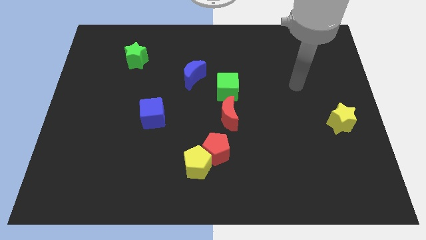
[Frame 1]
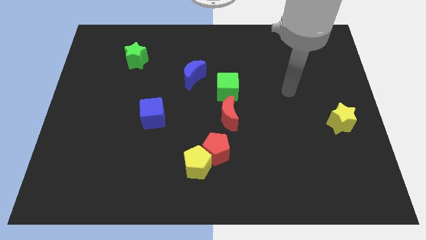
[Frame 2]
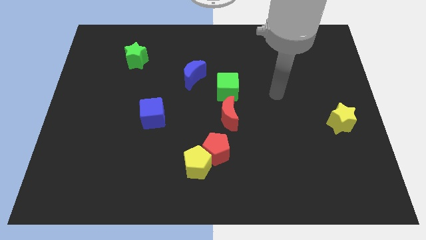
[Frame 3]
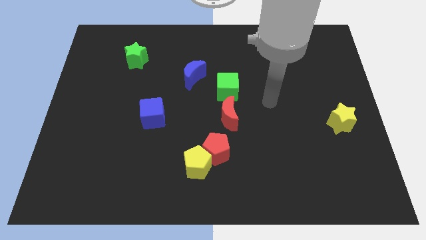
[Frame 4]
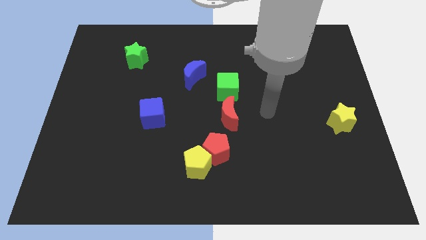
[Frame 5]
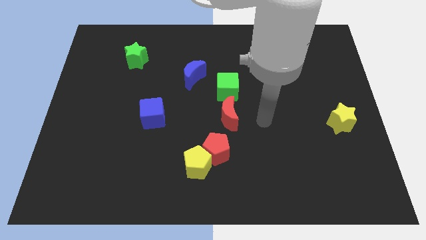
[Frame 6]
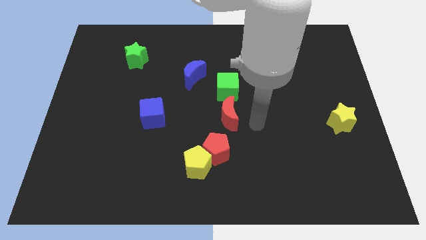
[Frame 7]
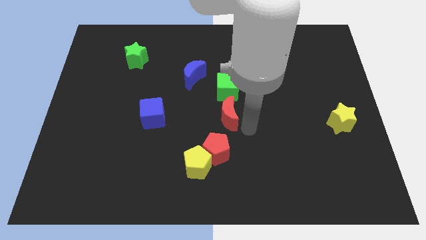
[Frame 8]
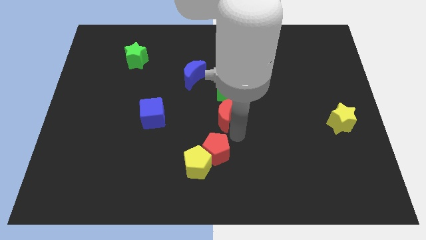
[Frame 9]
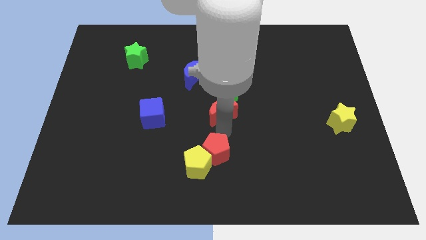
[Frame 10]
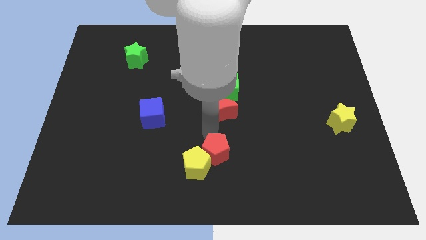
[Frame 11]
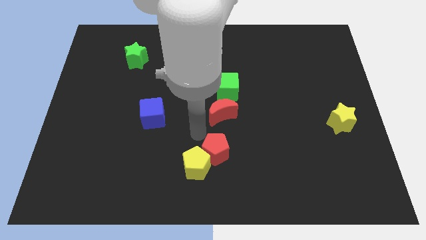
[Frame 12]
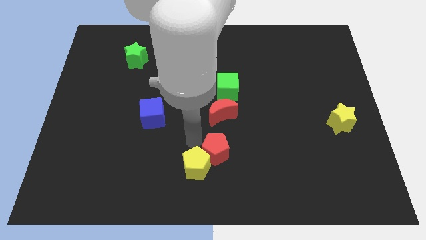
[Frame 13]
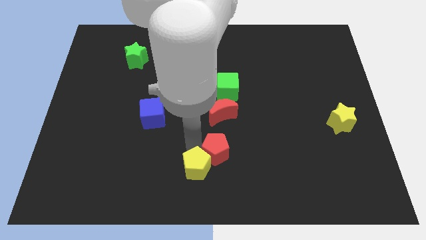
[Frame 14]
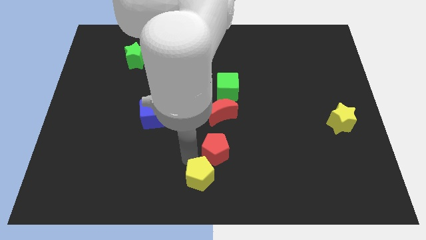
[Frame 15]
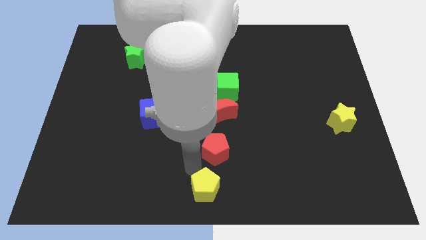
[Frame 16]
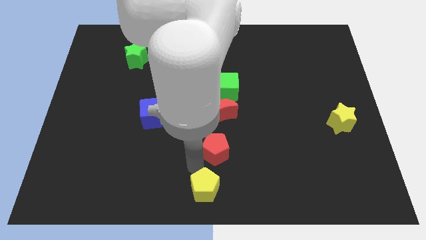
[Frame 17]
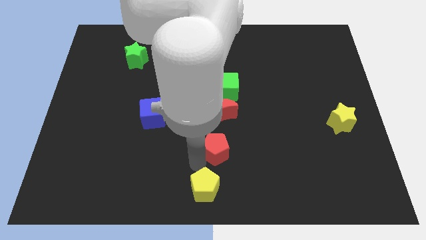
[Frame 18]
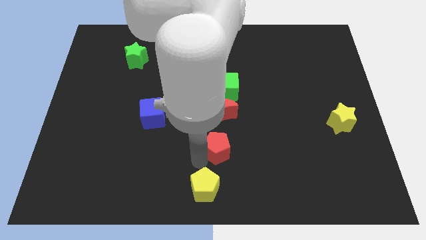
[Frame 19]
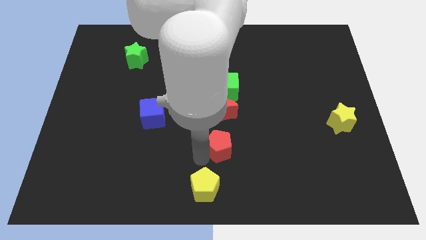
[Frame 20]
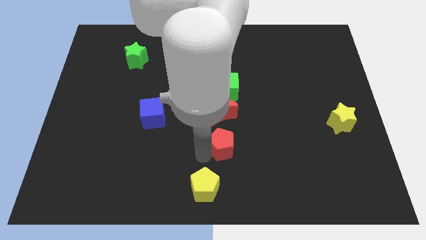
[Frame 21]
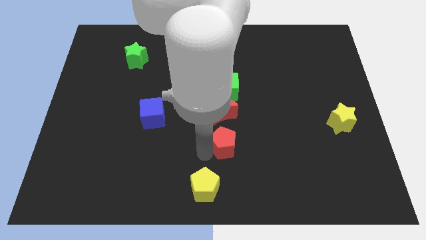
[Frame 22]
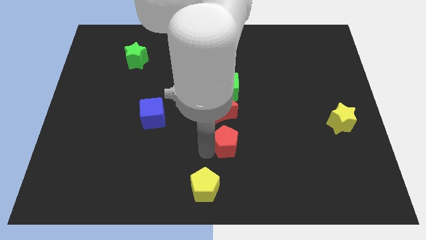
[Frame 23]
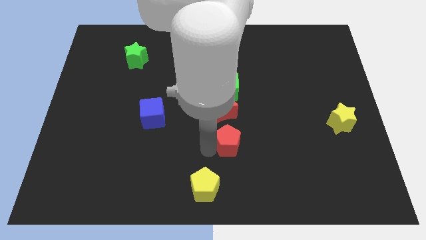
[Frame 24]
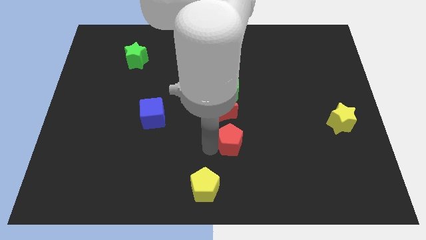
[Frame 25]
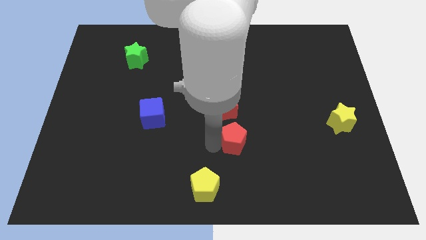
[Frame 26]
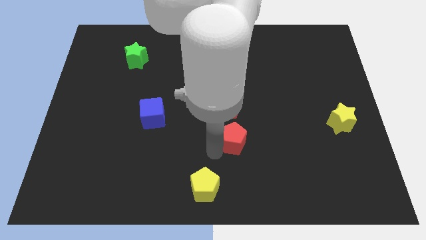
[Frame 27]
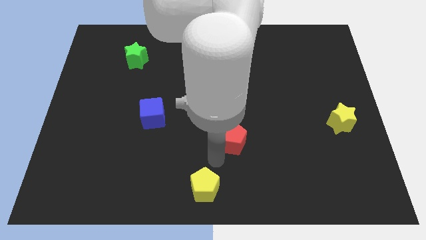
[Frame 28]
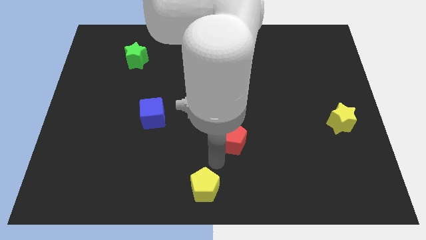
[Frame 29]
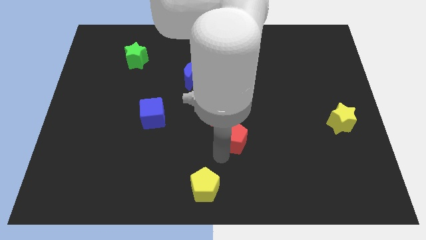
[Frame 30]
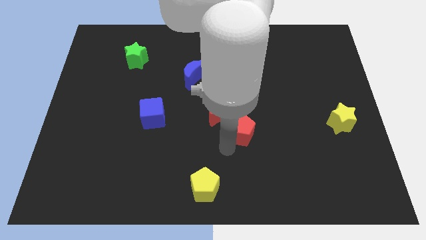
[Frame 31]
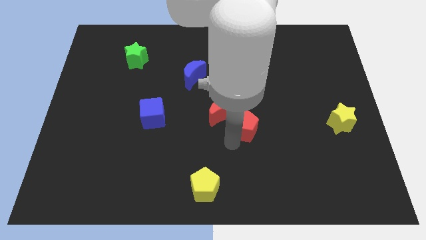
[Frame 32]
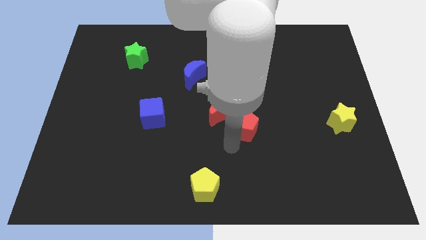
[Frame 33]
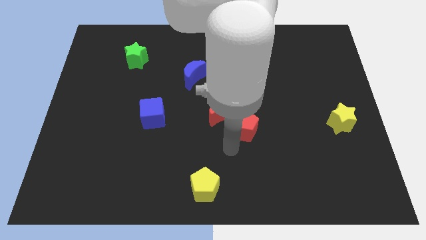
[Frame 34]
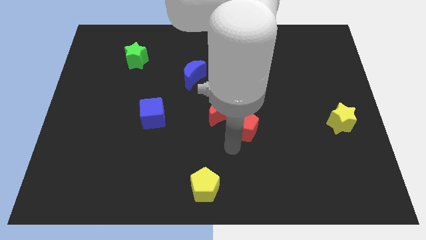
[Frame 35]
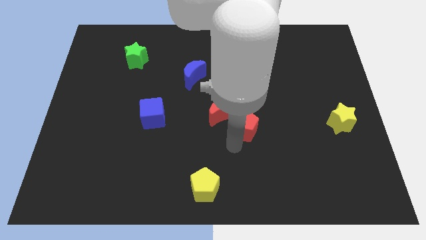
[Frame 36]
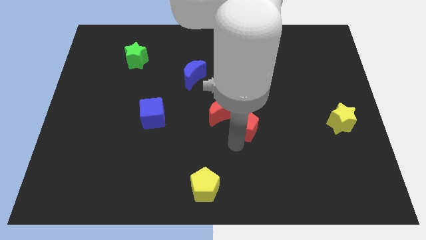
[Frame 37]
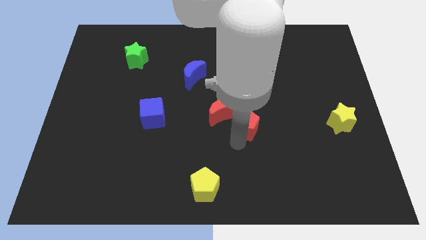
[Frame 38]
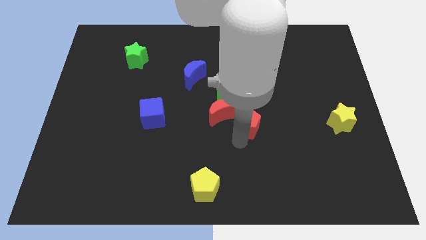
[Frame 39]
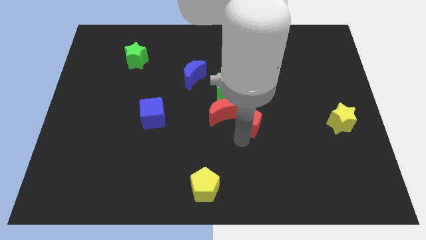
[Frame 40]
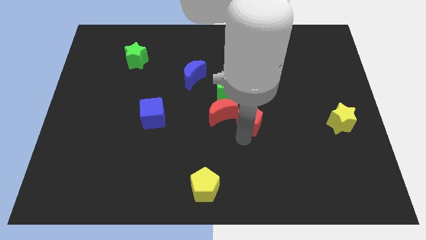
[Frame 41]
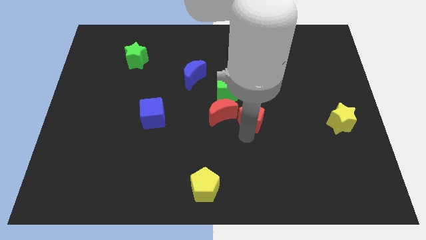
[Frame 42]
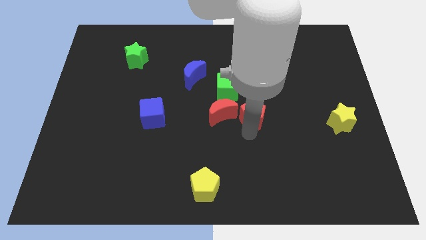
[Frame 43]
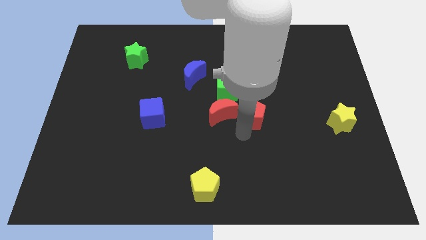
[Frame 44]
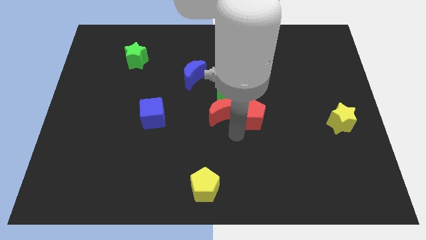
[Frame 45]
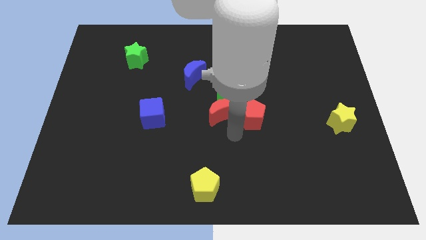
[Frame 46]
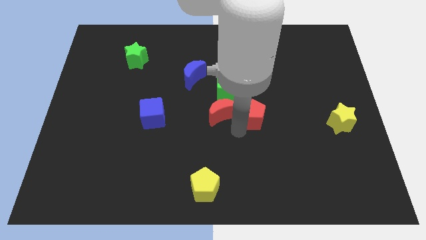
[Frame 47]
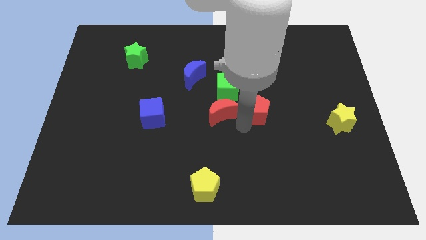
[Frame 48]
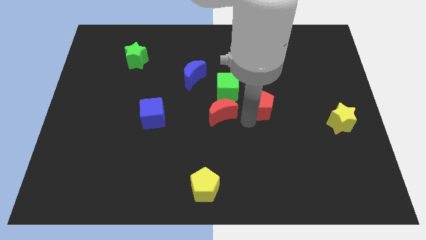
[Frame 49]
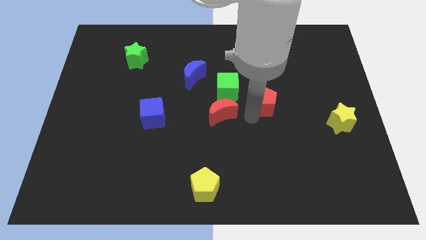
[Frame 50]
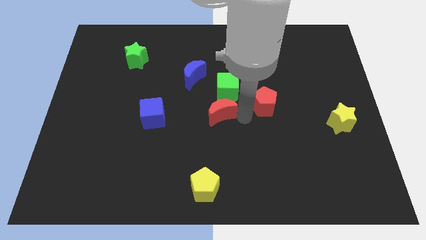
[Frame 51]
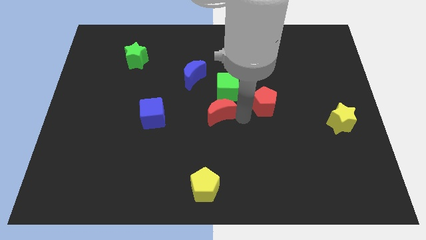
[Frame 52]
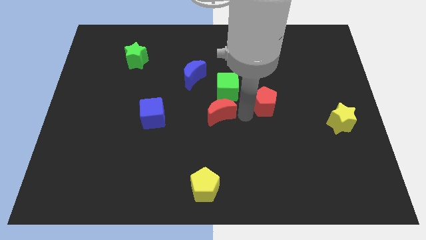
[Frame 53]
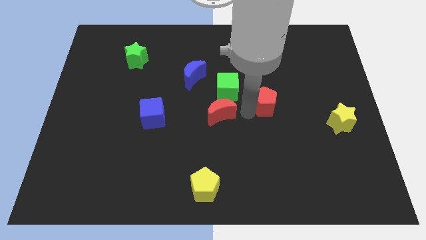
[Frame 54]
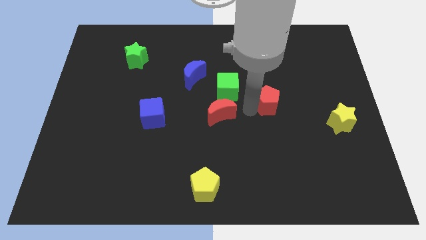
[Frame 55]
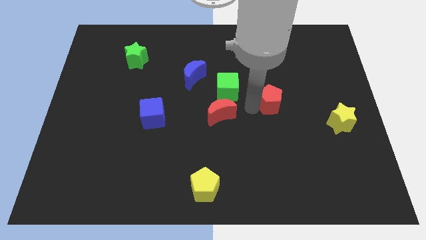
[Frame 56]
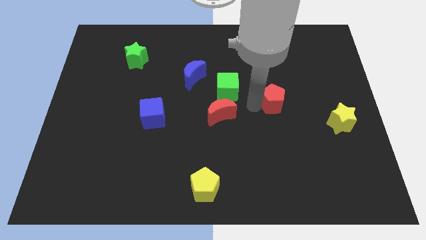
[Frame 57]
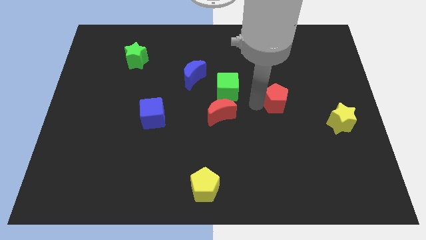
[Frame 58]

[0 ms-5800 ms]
push the red pentagon up and then right

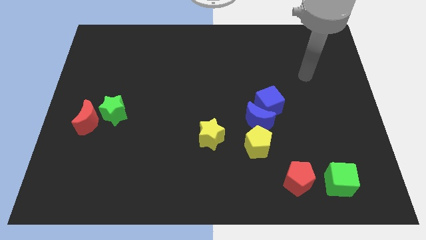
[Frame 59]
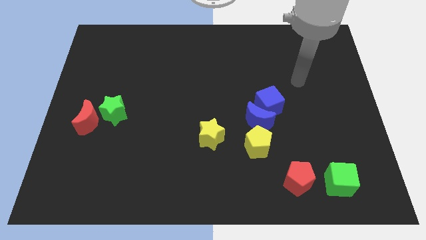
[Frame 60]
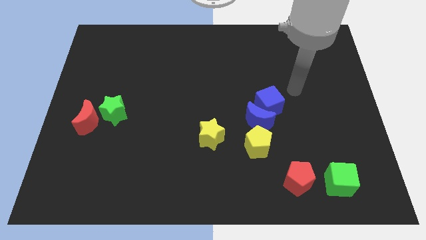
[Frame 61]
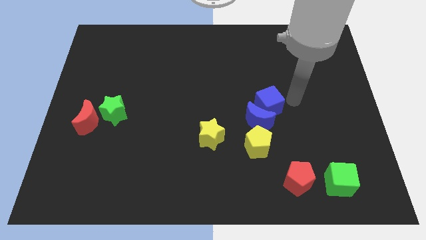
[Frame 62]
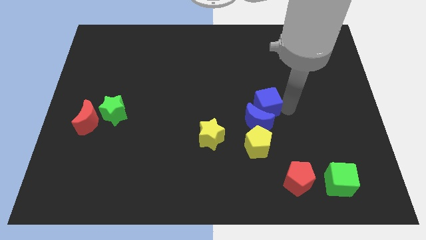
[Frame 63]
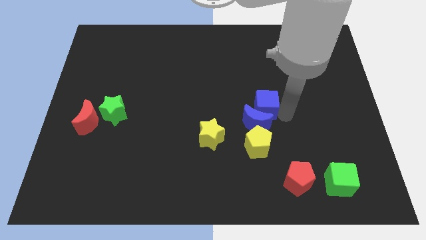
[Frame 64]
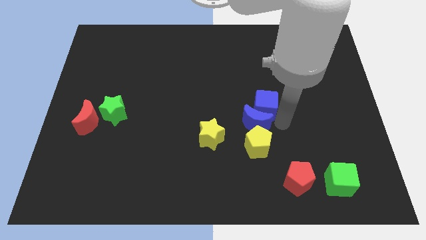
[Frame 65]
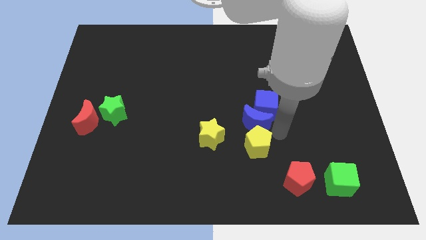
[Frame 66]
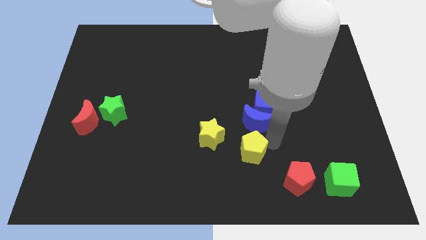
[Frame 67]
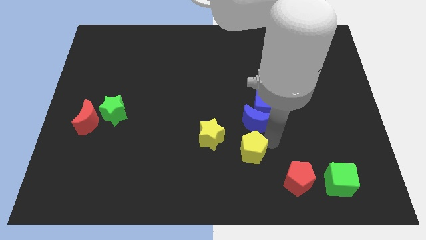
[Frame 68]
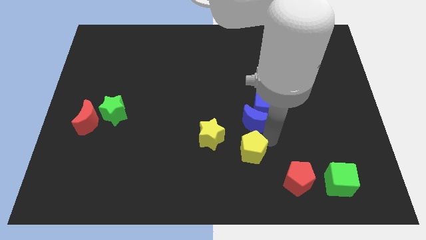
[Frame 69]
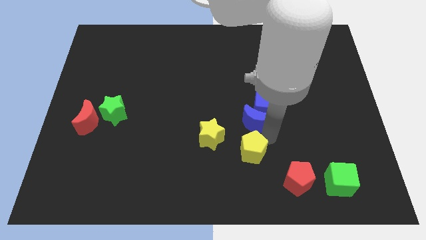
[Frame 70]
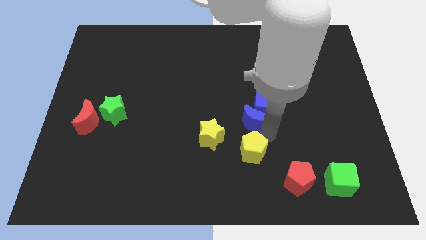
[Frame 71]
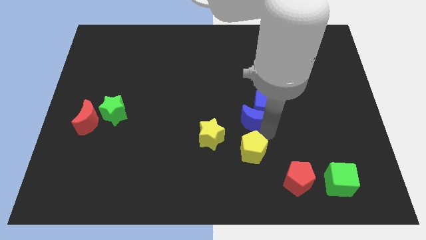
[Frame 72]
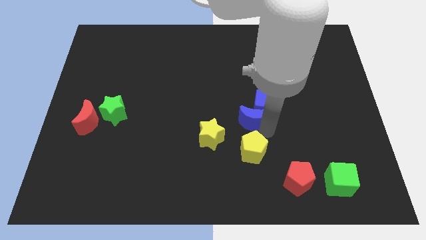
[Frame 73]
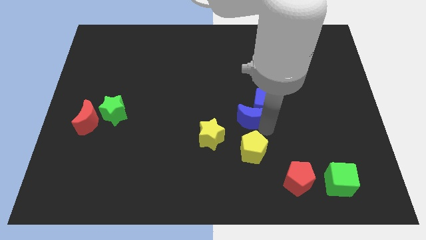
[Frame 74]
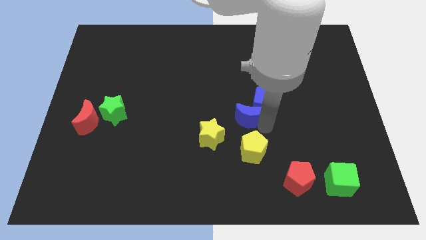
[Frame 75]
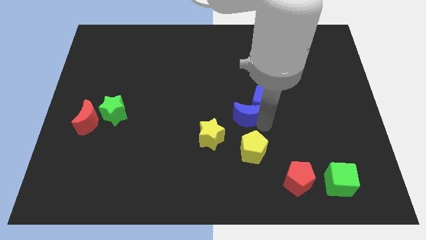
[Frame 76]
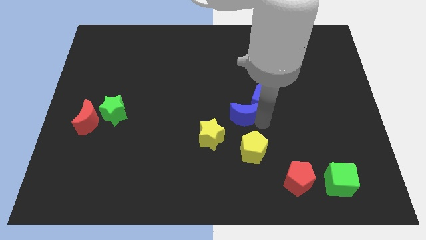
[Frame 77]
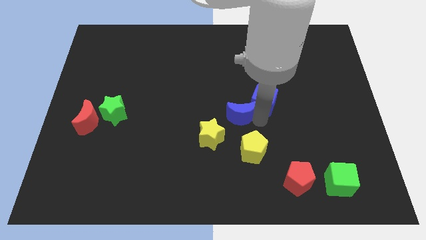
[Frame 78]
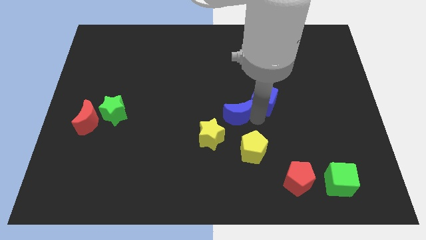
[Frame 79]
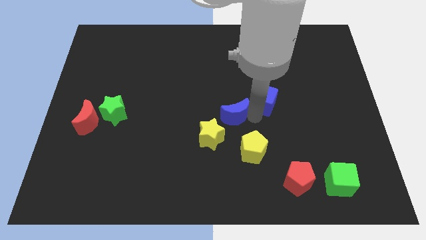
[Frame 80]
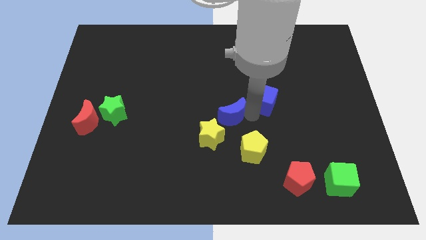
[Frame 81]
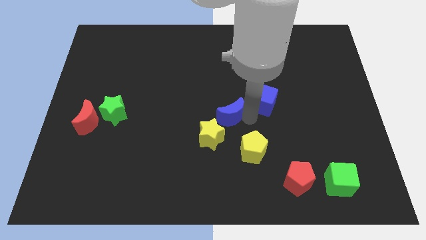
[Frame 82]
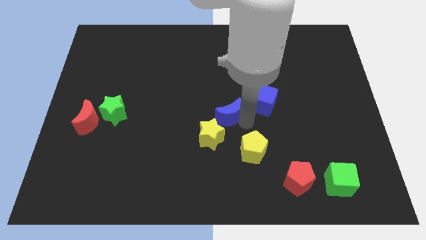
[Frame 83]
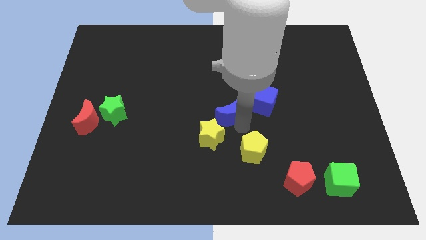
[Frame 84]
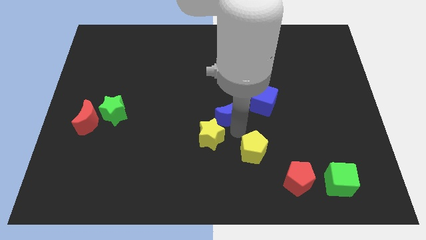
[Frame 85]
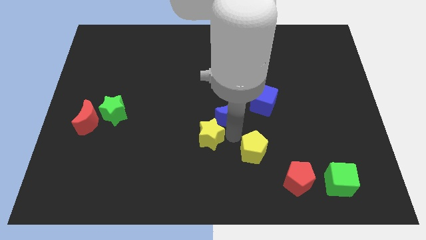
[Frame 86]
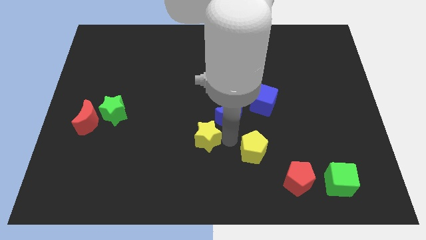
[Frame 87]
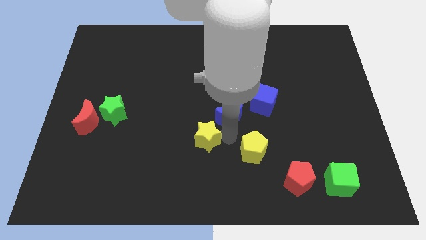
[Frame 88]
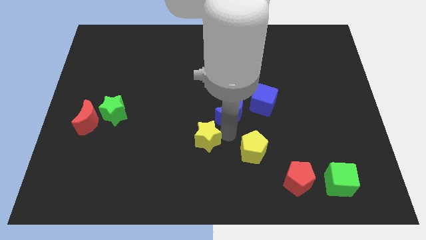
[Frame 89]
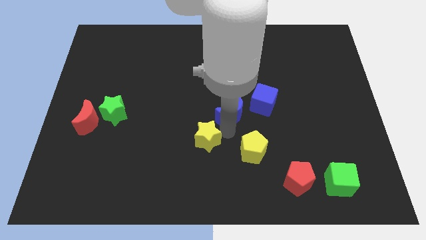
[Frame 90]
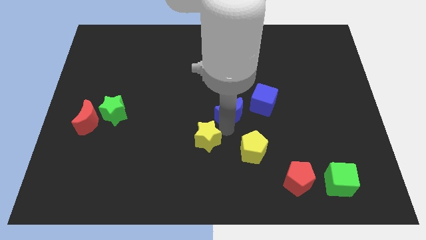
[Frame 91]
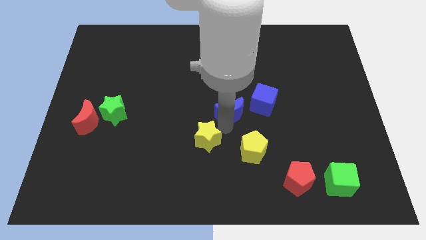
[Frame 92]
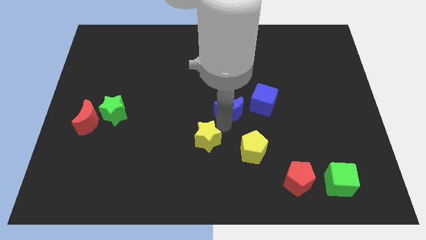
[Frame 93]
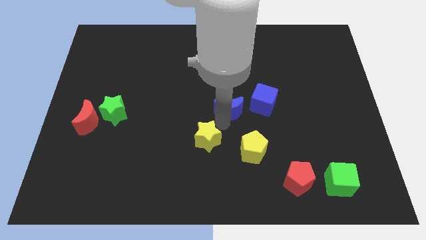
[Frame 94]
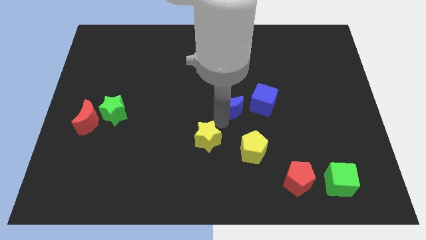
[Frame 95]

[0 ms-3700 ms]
slightly move the blue moon diagonally upwards and left
